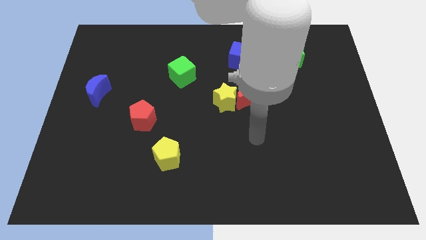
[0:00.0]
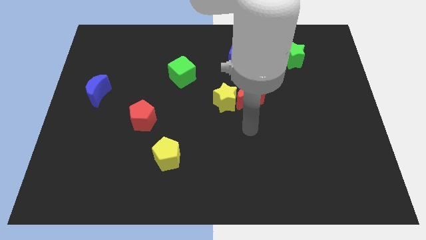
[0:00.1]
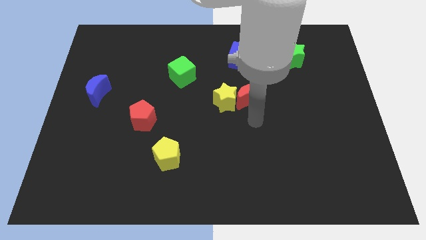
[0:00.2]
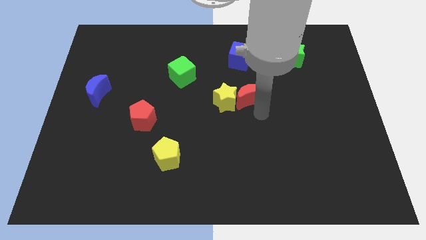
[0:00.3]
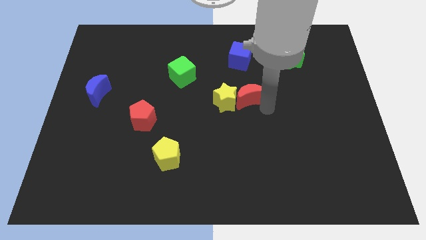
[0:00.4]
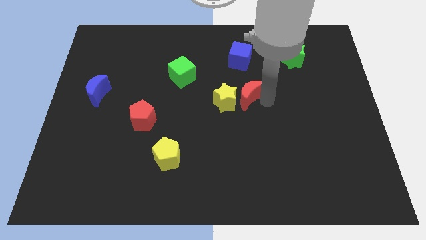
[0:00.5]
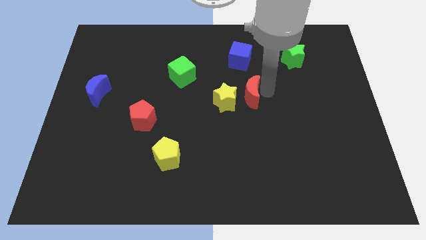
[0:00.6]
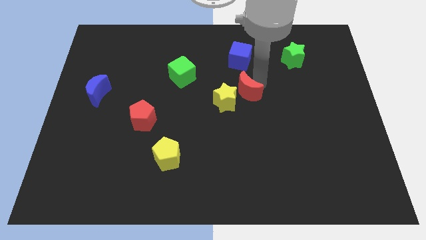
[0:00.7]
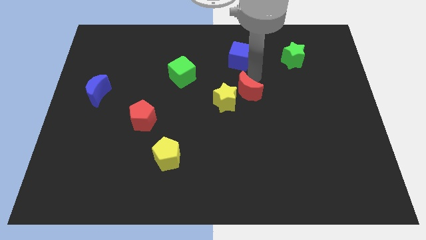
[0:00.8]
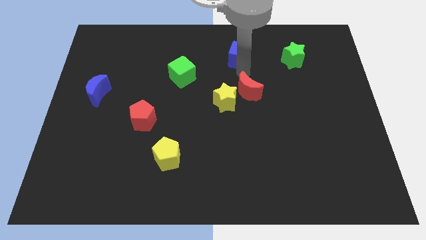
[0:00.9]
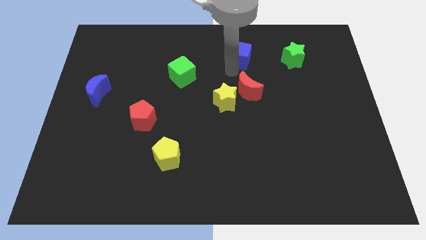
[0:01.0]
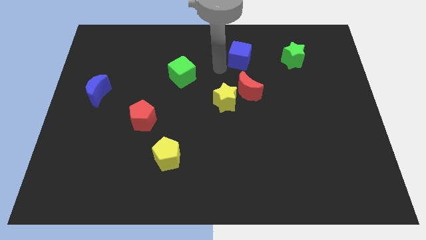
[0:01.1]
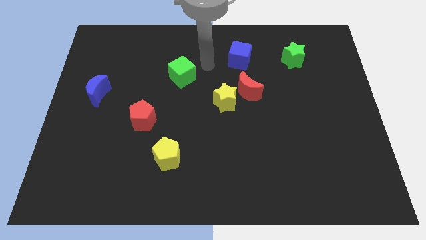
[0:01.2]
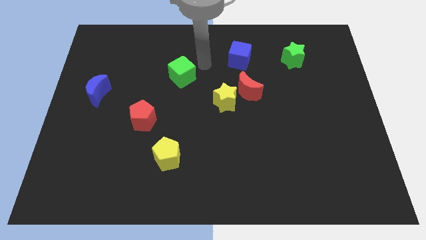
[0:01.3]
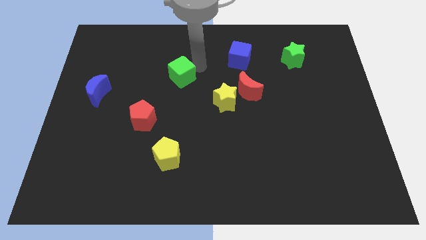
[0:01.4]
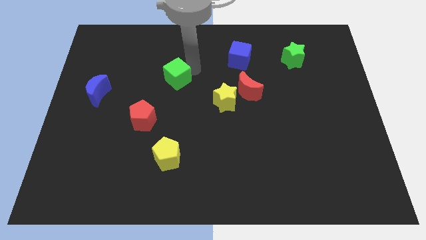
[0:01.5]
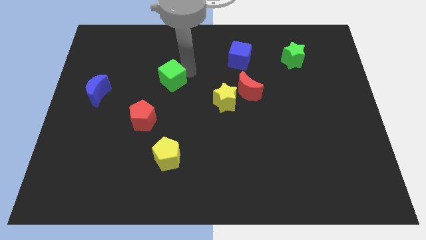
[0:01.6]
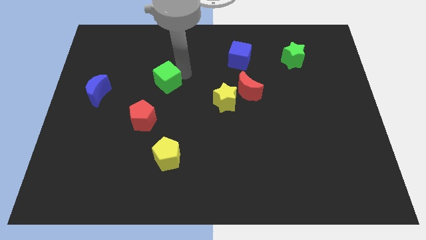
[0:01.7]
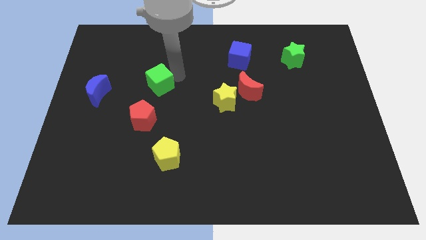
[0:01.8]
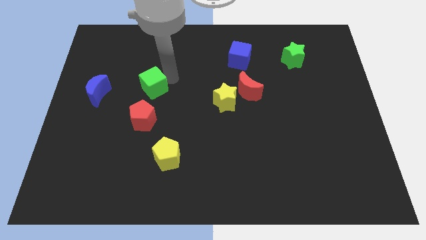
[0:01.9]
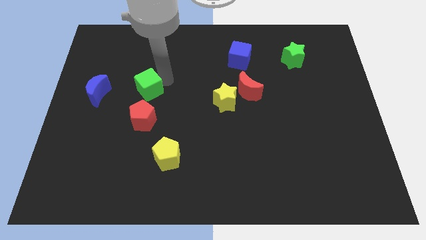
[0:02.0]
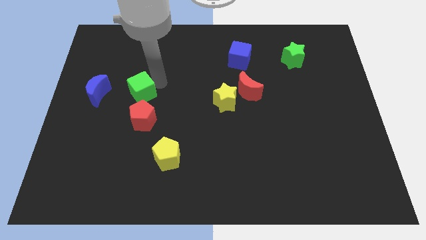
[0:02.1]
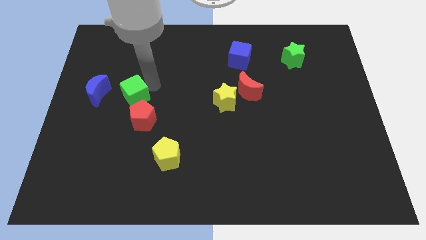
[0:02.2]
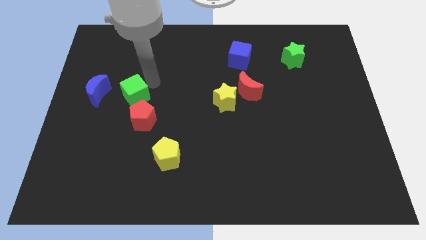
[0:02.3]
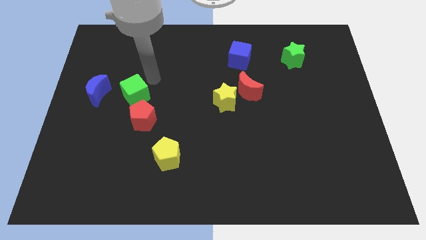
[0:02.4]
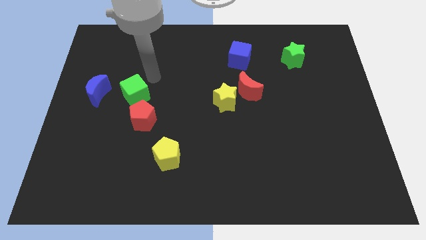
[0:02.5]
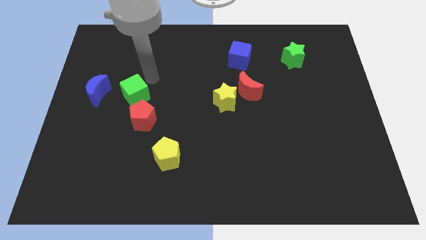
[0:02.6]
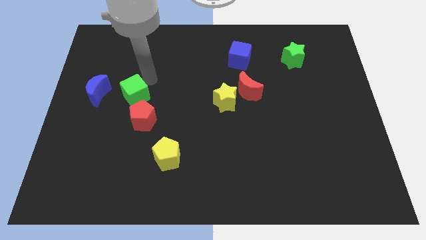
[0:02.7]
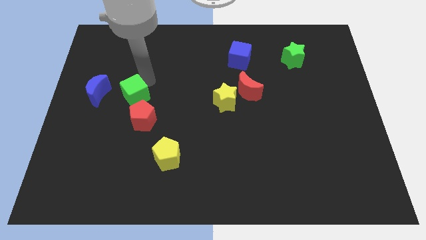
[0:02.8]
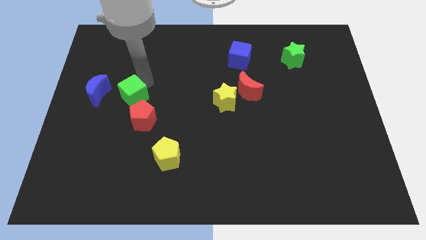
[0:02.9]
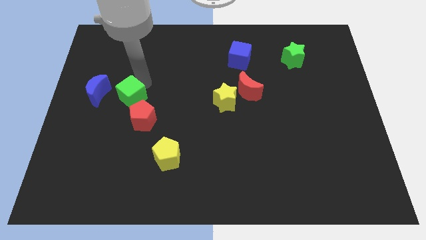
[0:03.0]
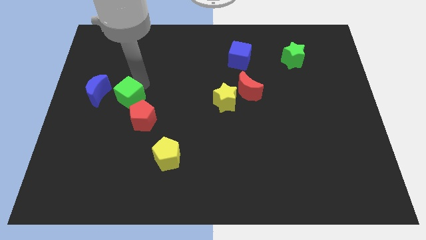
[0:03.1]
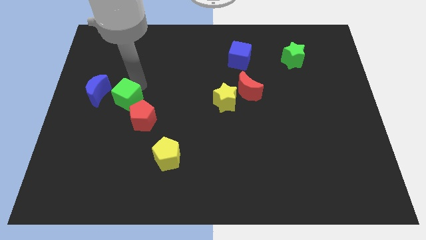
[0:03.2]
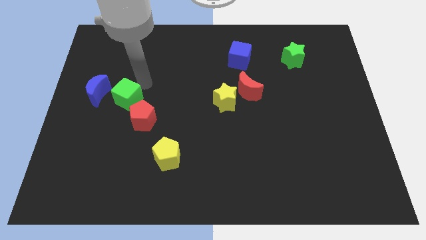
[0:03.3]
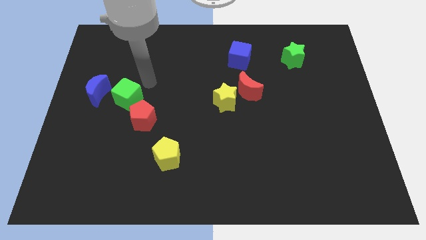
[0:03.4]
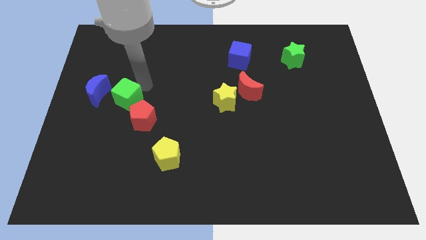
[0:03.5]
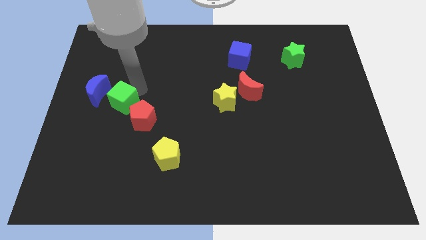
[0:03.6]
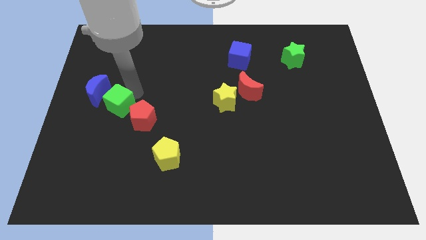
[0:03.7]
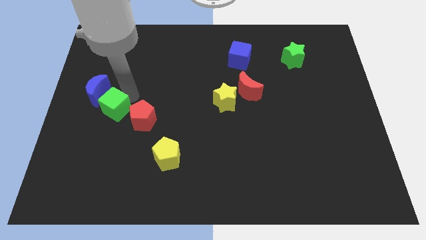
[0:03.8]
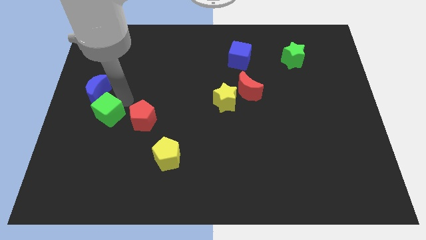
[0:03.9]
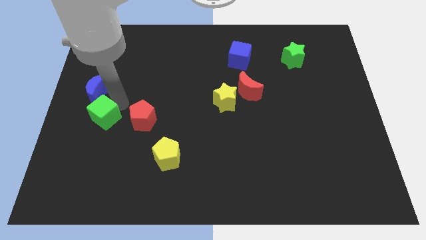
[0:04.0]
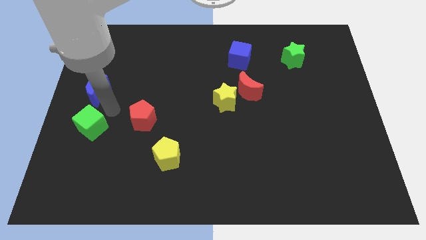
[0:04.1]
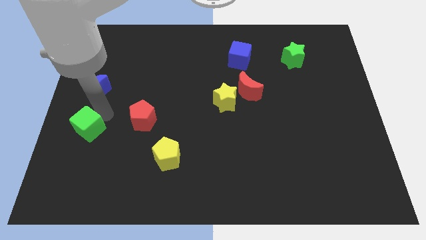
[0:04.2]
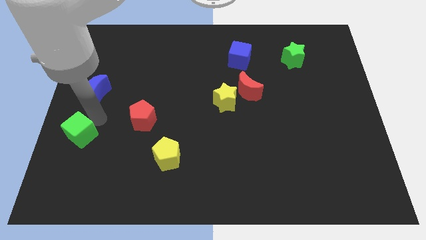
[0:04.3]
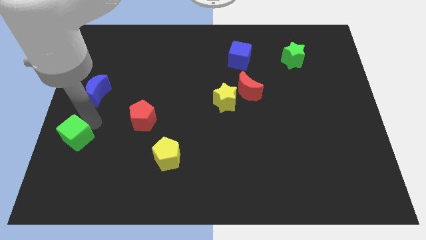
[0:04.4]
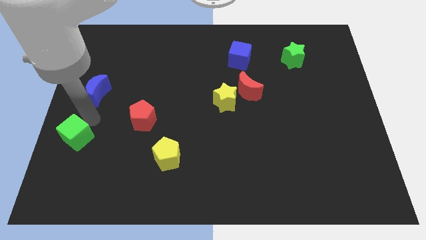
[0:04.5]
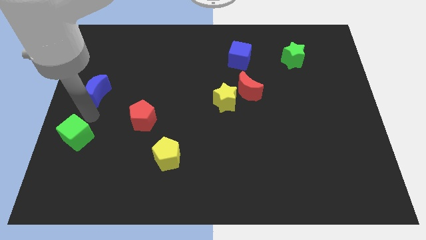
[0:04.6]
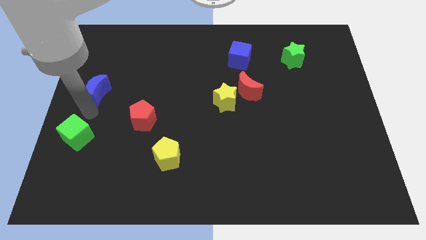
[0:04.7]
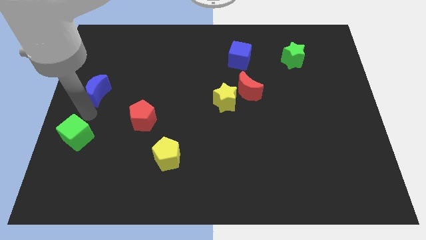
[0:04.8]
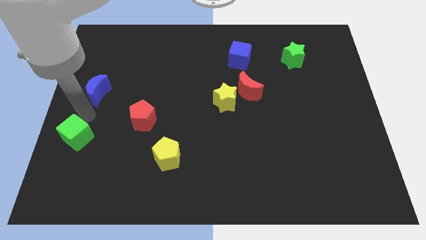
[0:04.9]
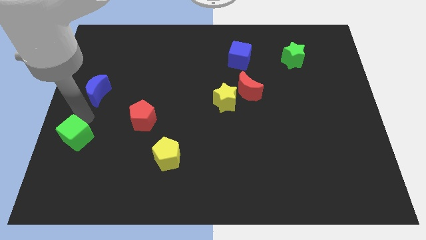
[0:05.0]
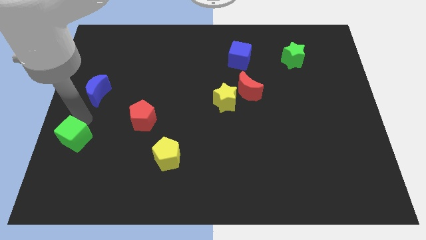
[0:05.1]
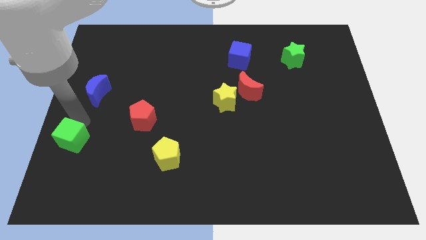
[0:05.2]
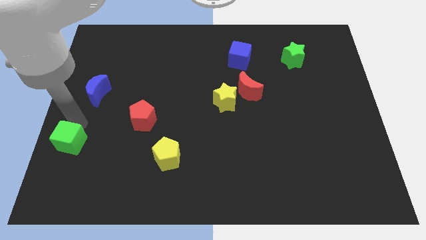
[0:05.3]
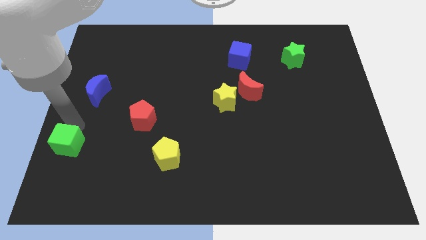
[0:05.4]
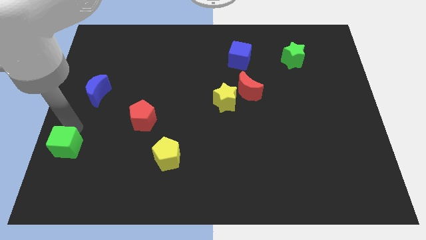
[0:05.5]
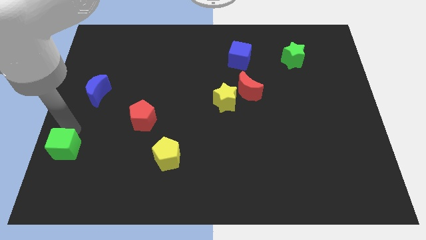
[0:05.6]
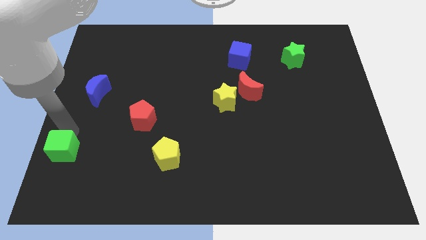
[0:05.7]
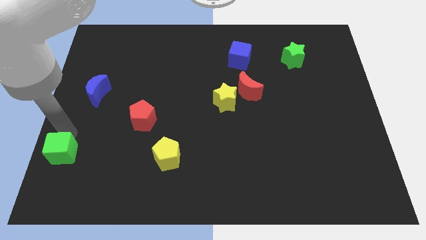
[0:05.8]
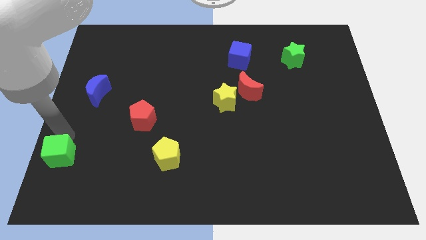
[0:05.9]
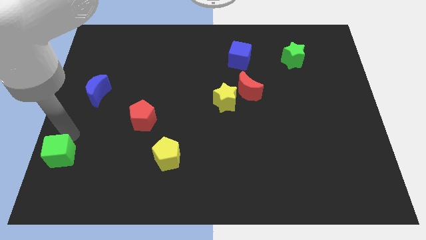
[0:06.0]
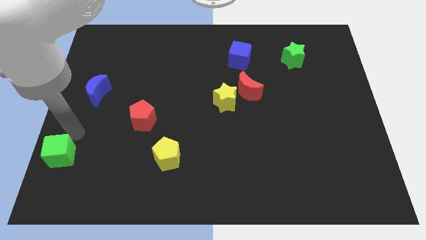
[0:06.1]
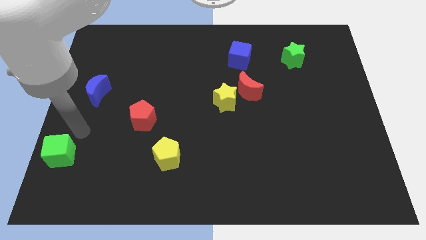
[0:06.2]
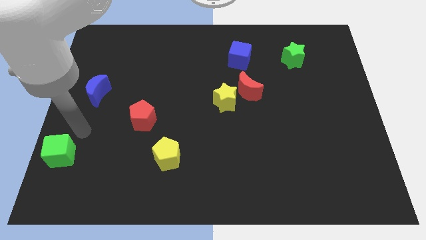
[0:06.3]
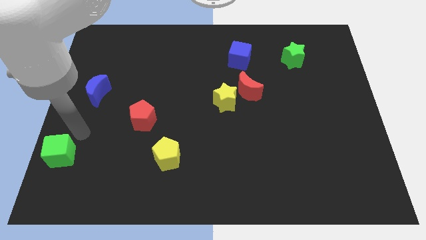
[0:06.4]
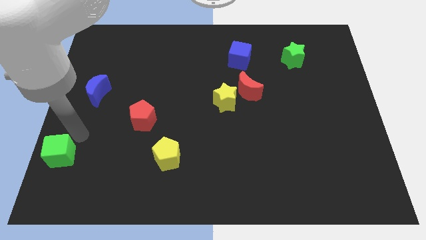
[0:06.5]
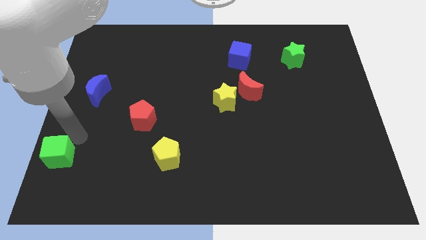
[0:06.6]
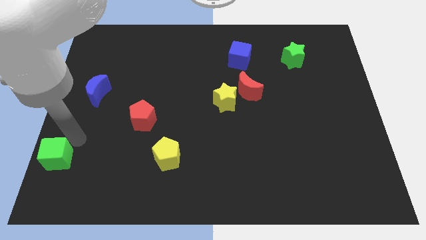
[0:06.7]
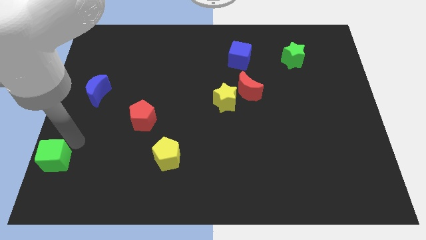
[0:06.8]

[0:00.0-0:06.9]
put the green cube to the bottom left

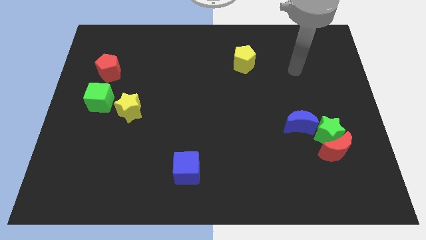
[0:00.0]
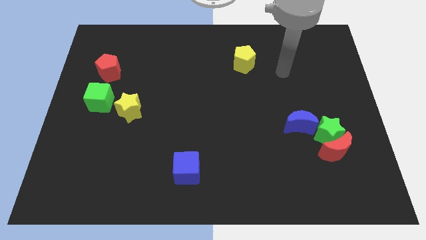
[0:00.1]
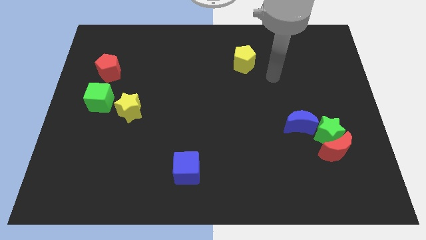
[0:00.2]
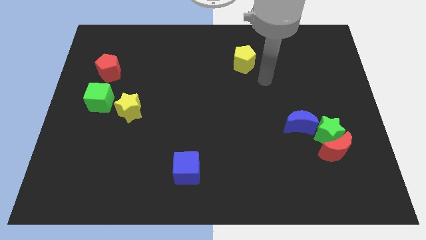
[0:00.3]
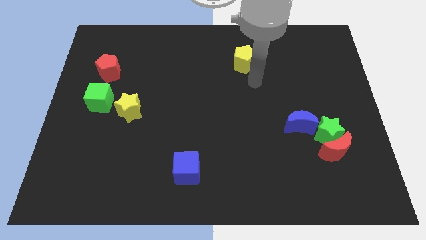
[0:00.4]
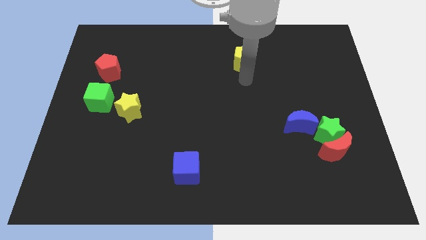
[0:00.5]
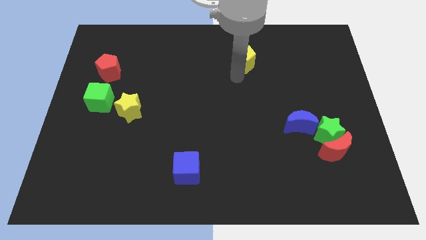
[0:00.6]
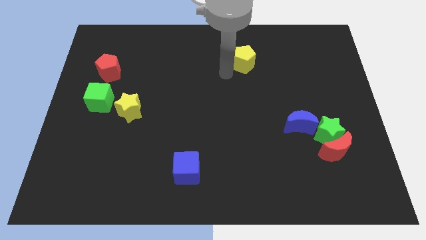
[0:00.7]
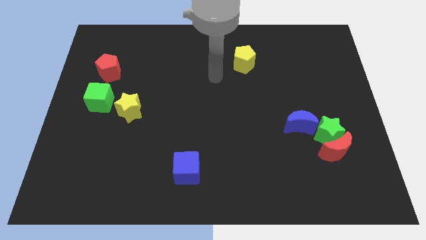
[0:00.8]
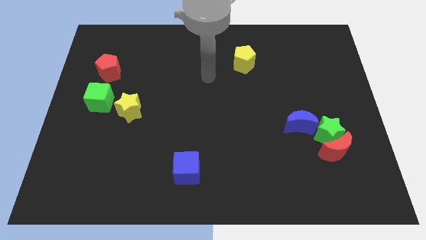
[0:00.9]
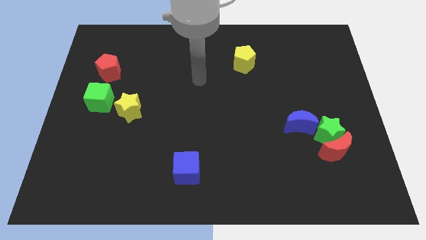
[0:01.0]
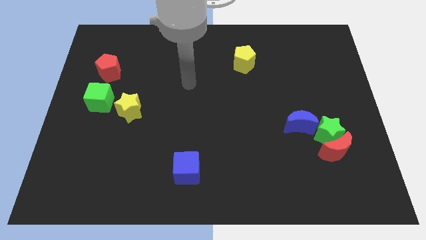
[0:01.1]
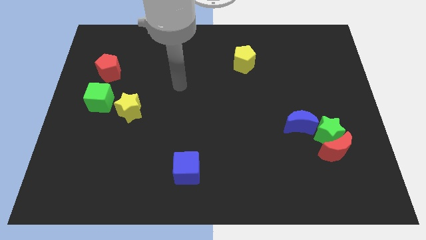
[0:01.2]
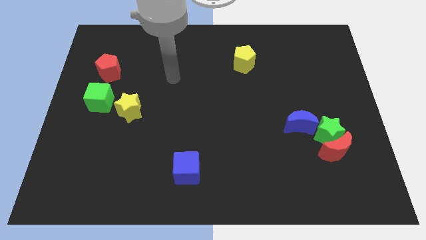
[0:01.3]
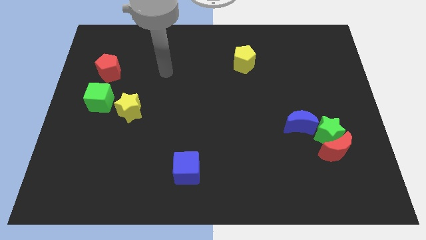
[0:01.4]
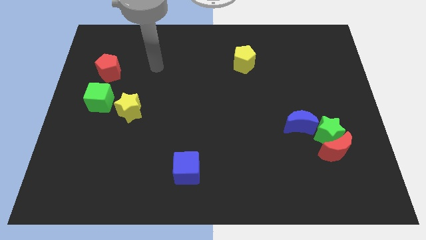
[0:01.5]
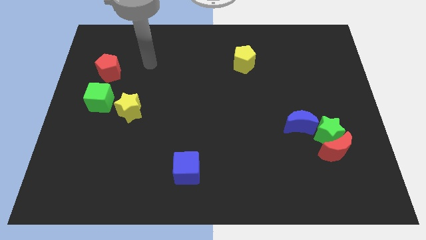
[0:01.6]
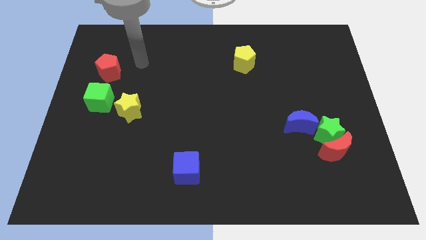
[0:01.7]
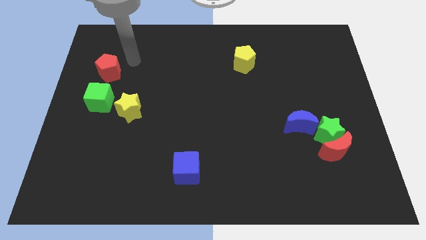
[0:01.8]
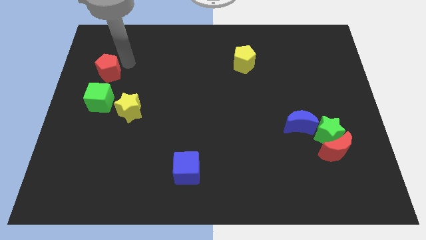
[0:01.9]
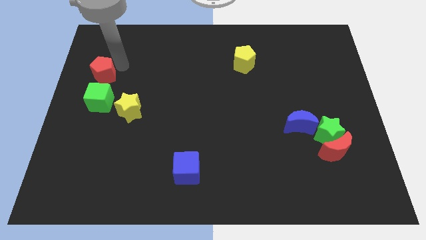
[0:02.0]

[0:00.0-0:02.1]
slide the red pentagon to the left side
